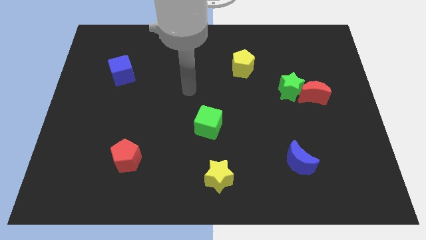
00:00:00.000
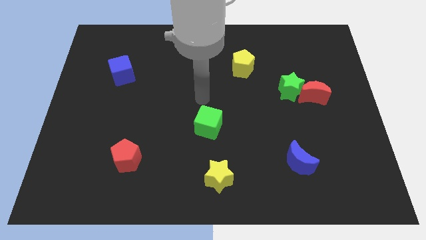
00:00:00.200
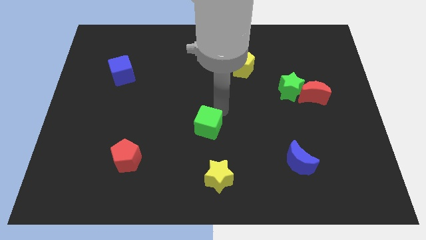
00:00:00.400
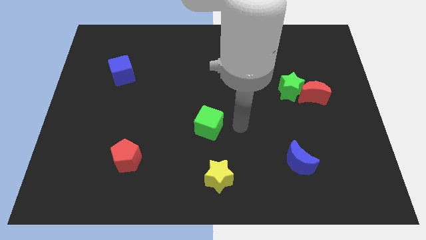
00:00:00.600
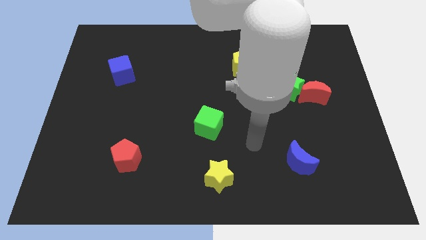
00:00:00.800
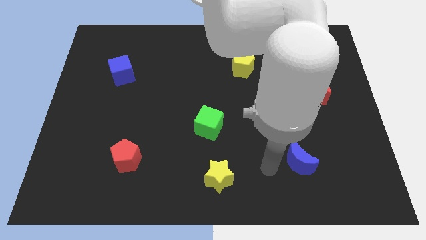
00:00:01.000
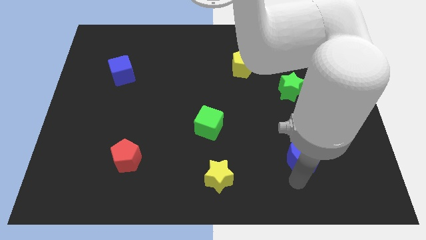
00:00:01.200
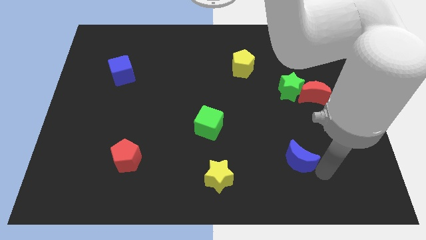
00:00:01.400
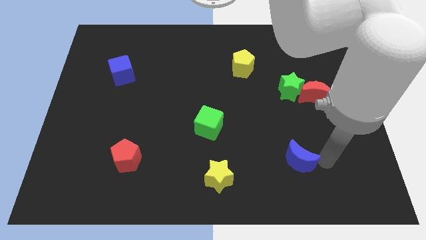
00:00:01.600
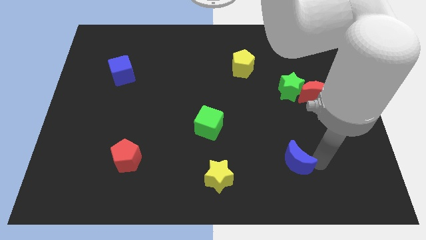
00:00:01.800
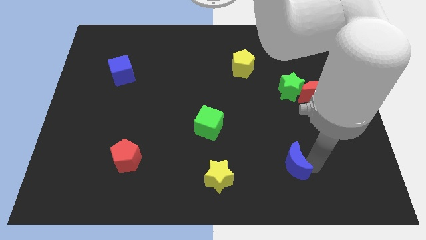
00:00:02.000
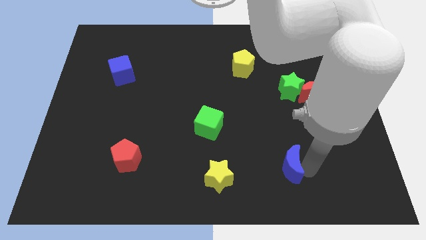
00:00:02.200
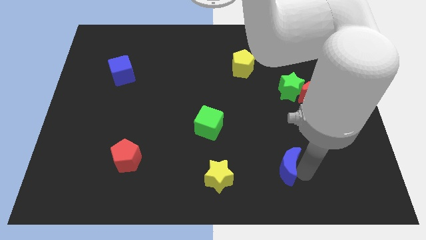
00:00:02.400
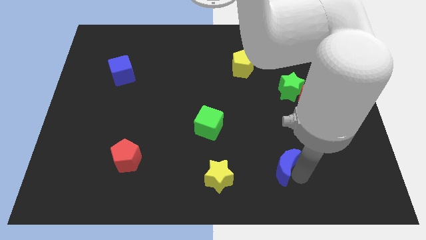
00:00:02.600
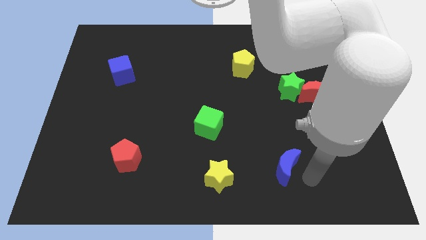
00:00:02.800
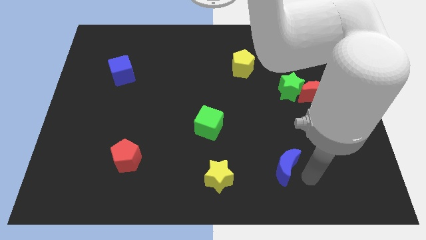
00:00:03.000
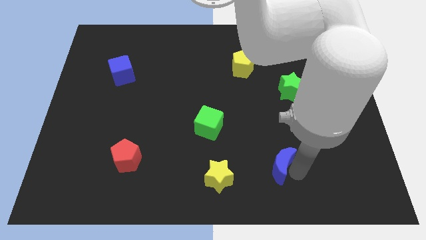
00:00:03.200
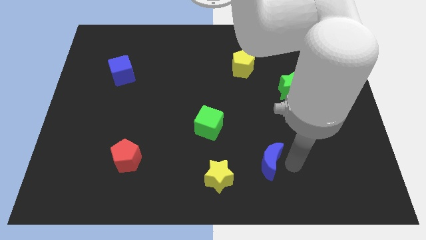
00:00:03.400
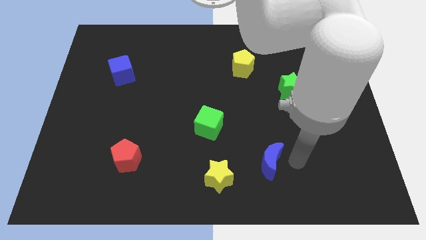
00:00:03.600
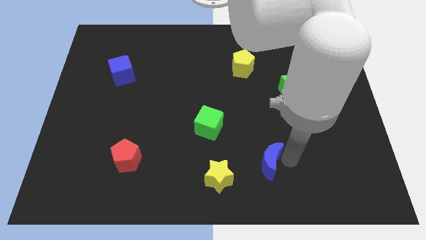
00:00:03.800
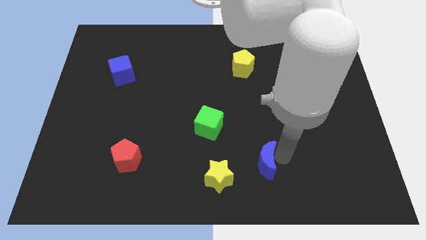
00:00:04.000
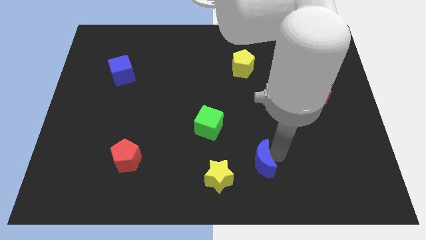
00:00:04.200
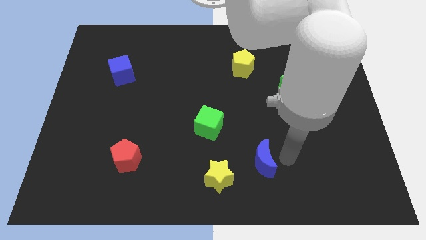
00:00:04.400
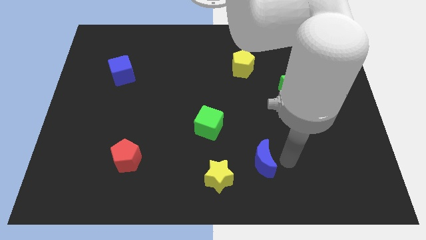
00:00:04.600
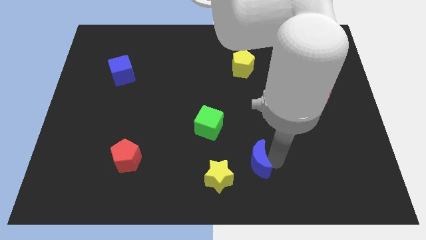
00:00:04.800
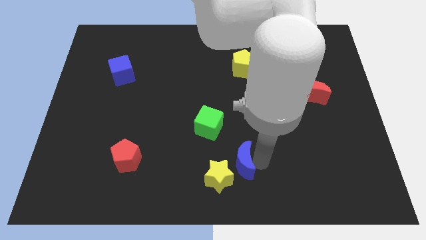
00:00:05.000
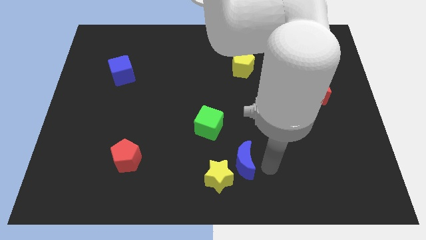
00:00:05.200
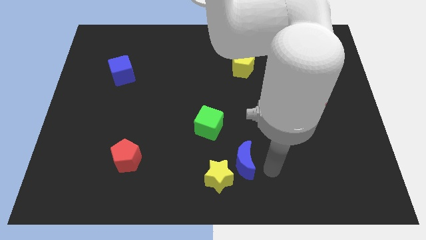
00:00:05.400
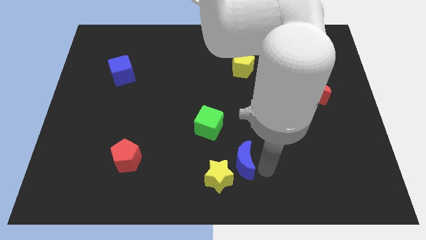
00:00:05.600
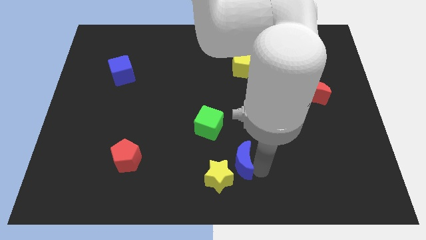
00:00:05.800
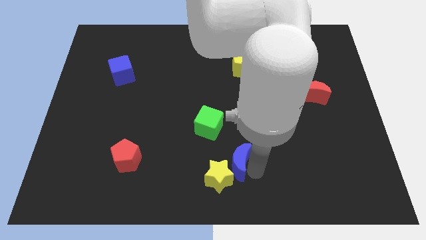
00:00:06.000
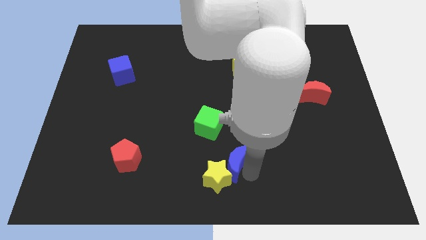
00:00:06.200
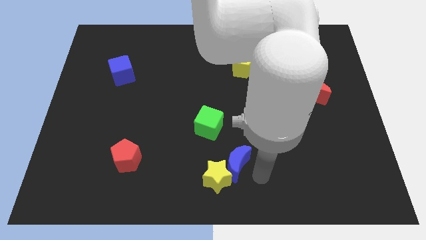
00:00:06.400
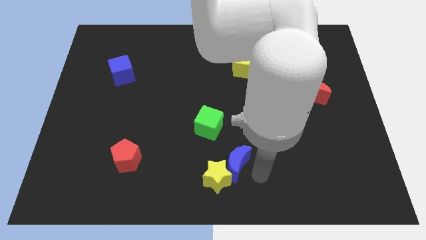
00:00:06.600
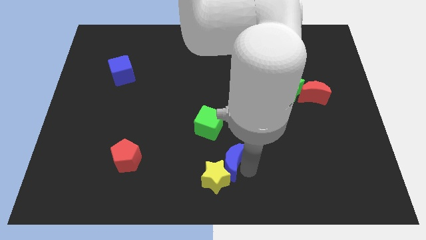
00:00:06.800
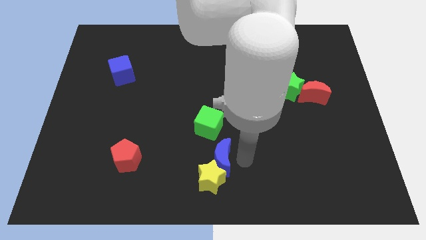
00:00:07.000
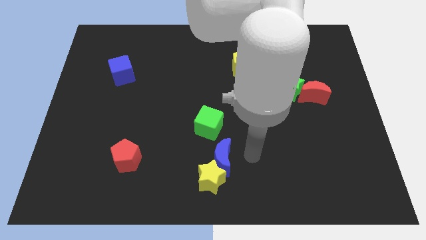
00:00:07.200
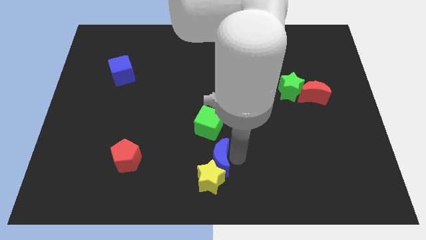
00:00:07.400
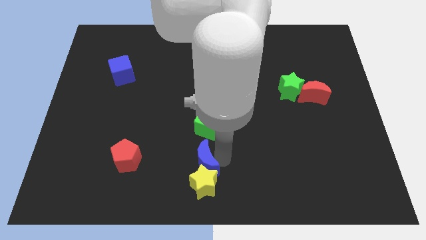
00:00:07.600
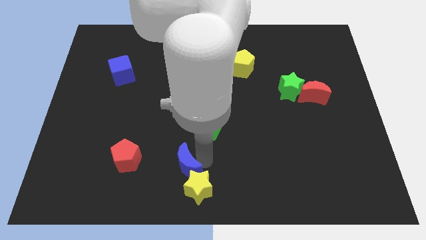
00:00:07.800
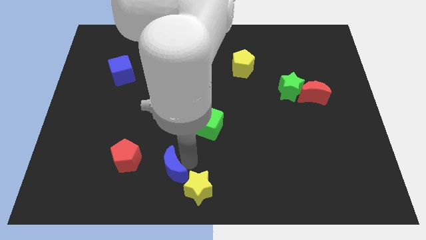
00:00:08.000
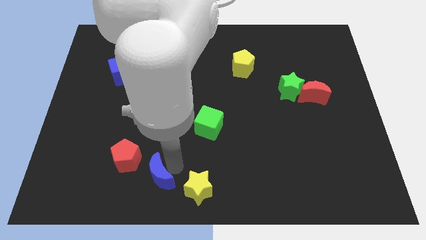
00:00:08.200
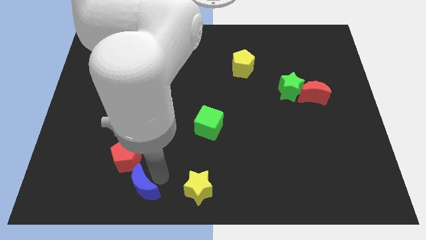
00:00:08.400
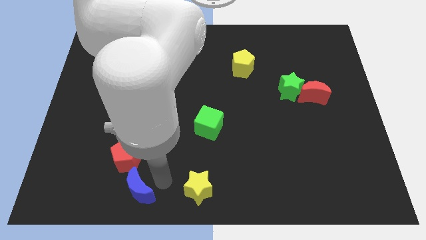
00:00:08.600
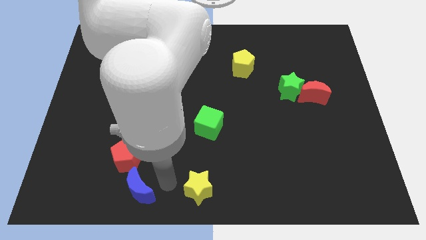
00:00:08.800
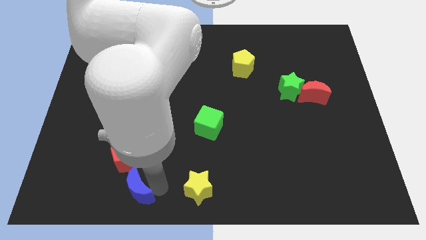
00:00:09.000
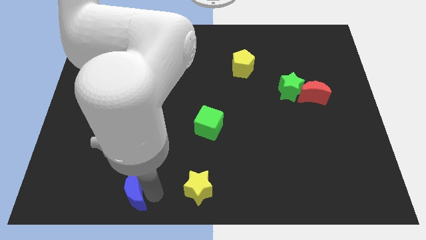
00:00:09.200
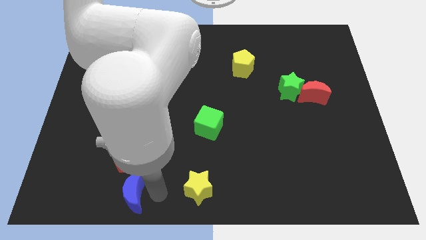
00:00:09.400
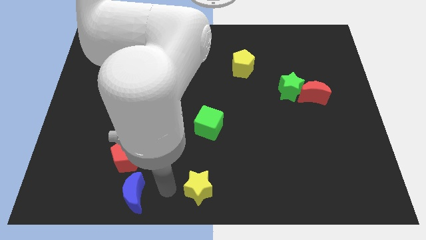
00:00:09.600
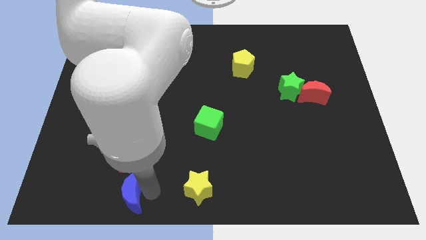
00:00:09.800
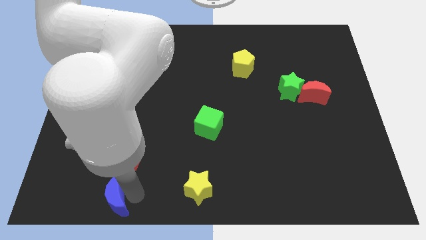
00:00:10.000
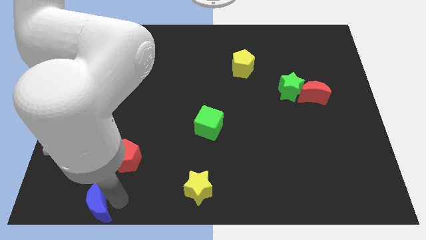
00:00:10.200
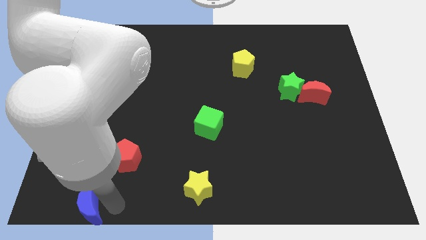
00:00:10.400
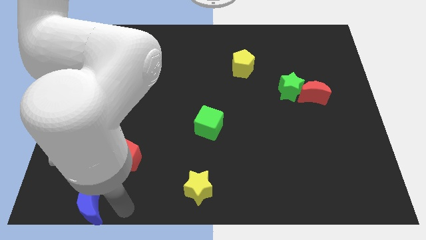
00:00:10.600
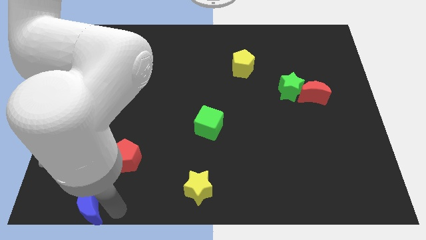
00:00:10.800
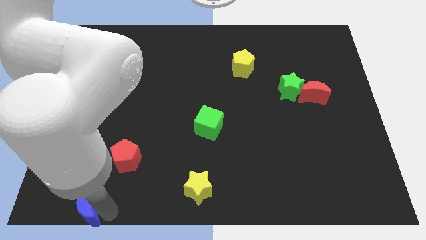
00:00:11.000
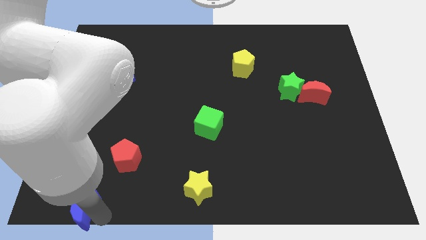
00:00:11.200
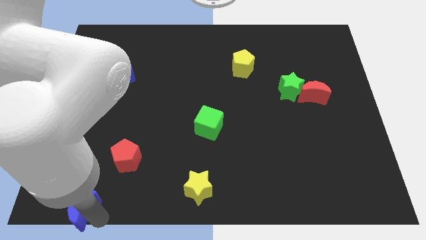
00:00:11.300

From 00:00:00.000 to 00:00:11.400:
move the blue moon to the lower left corner
